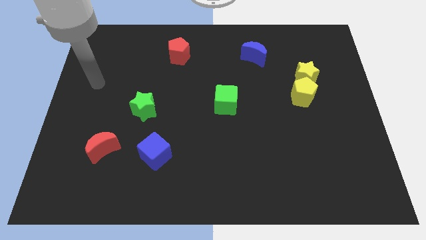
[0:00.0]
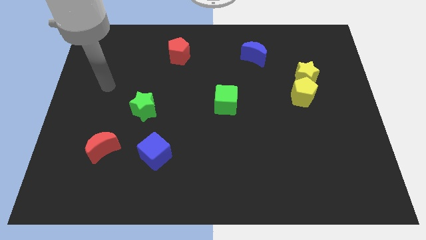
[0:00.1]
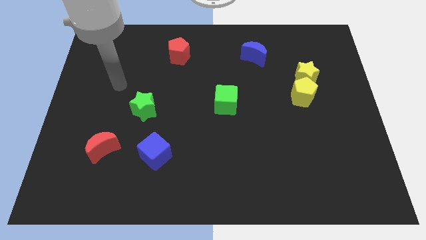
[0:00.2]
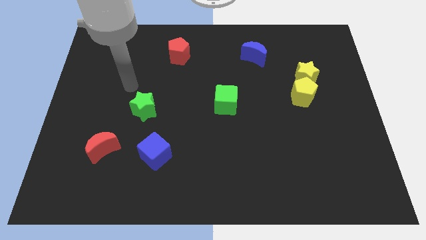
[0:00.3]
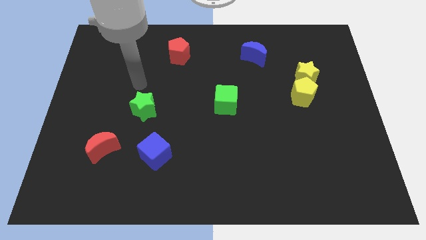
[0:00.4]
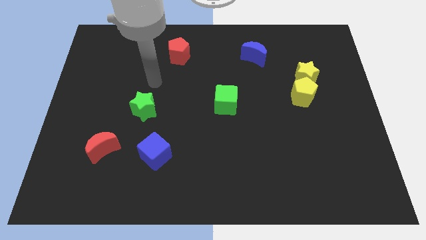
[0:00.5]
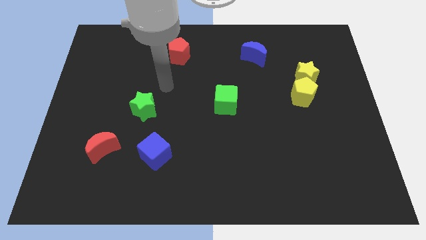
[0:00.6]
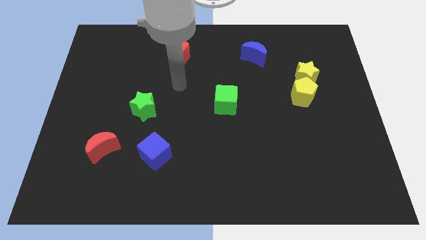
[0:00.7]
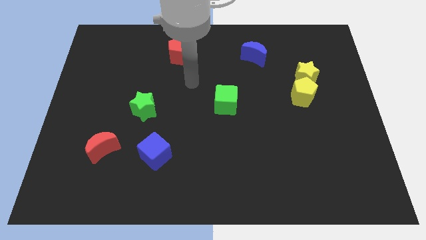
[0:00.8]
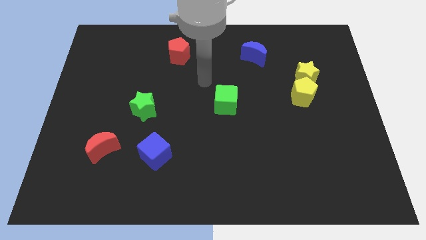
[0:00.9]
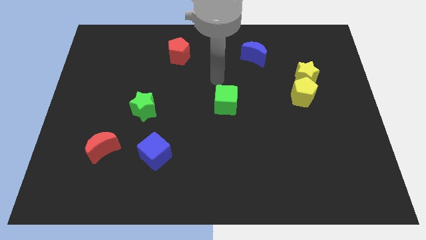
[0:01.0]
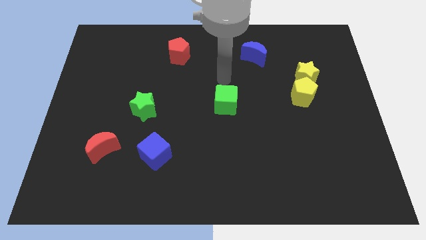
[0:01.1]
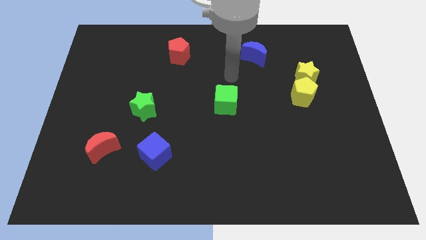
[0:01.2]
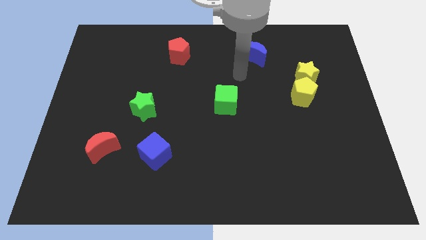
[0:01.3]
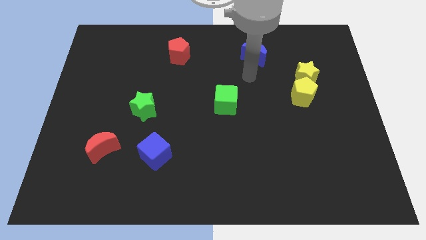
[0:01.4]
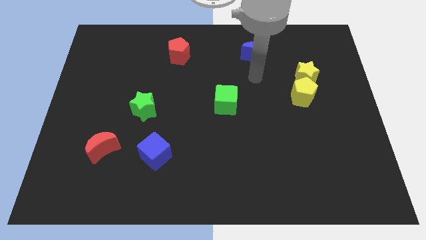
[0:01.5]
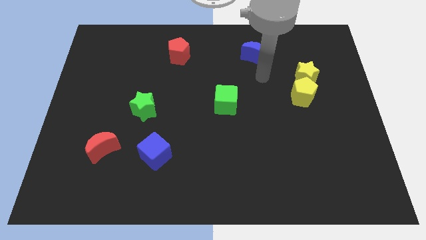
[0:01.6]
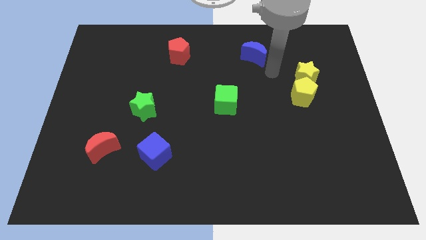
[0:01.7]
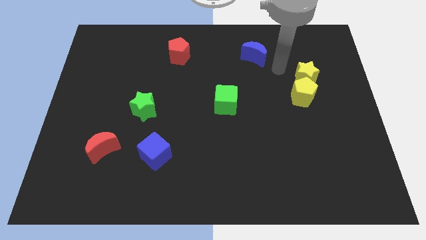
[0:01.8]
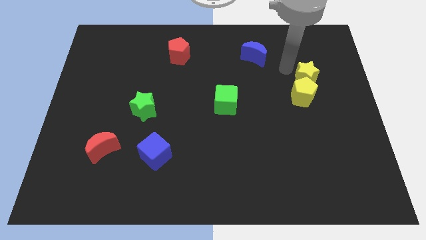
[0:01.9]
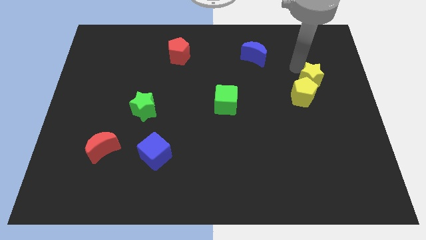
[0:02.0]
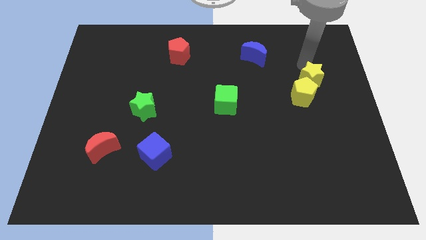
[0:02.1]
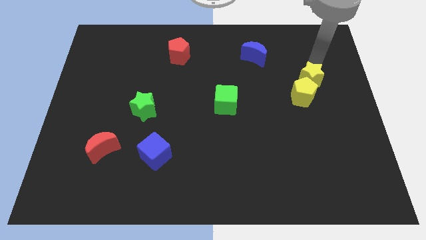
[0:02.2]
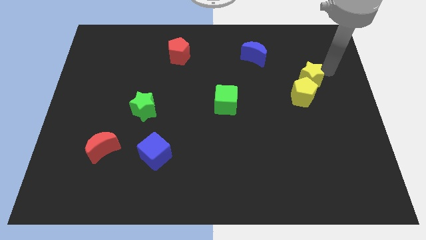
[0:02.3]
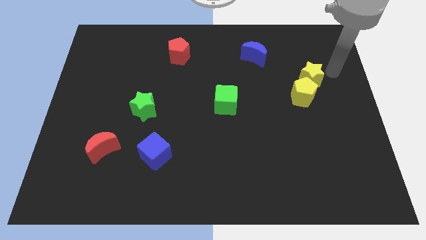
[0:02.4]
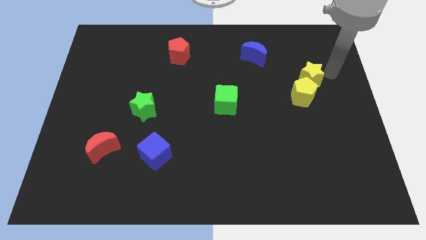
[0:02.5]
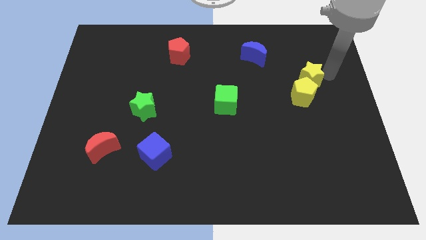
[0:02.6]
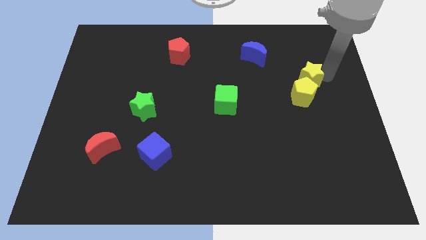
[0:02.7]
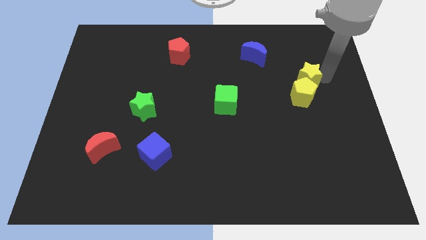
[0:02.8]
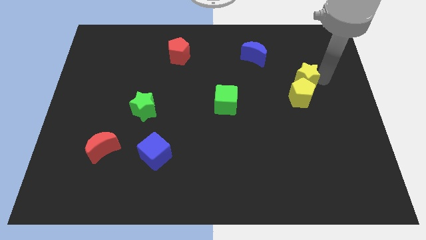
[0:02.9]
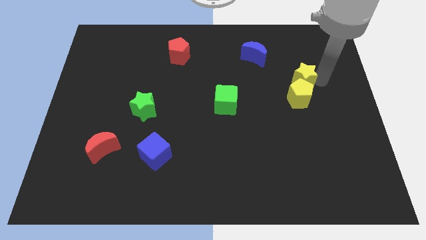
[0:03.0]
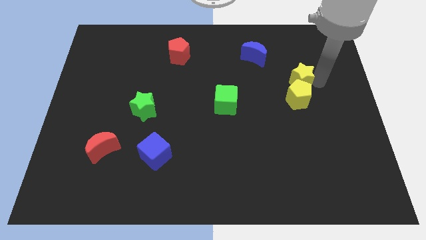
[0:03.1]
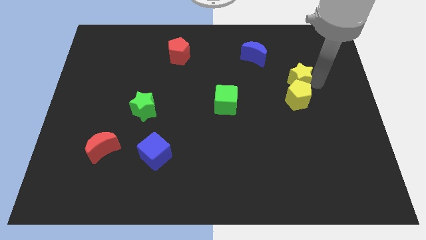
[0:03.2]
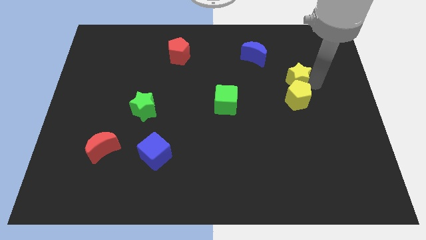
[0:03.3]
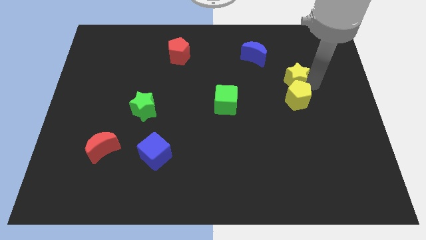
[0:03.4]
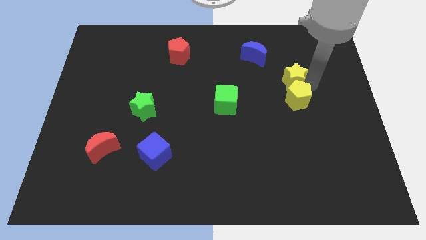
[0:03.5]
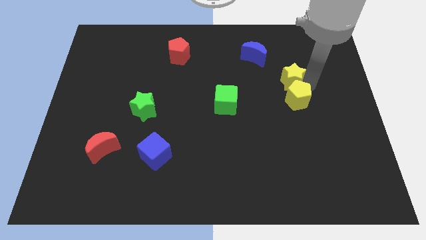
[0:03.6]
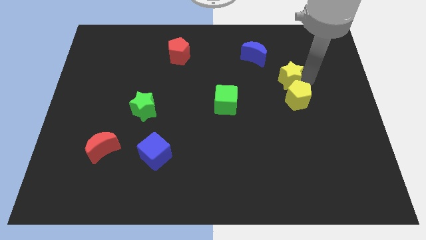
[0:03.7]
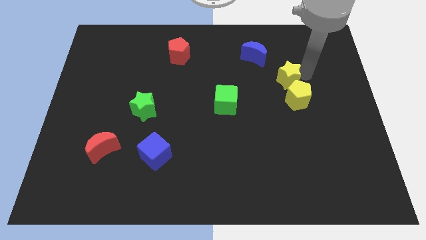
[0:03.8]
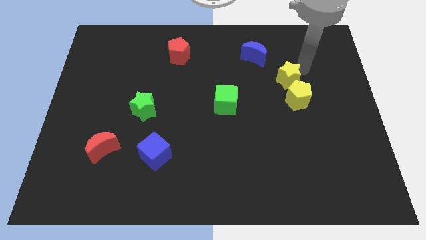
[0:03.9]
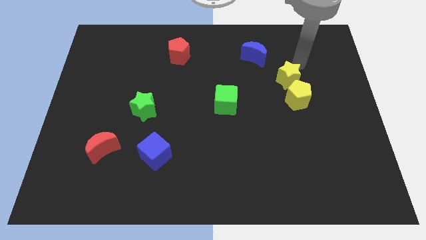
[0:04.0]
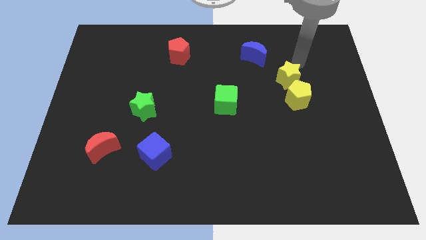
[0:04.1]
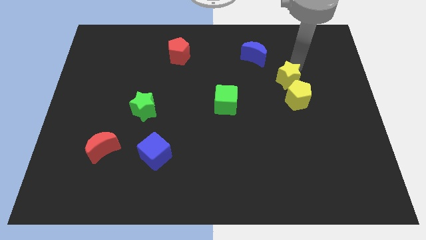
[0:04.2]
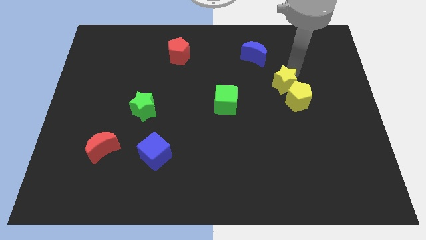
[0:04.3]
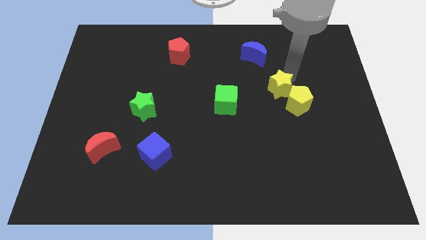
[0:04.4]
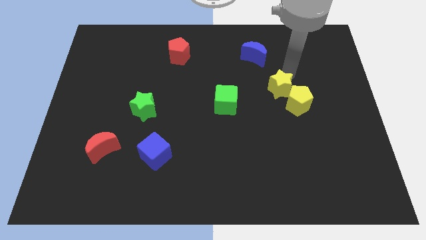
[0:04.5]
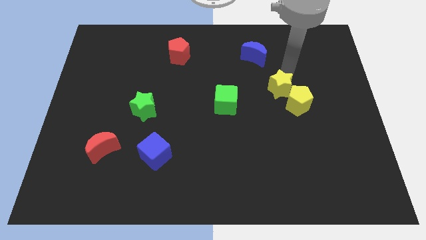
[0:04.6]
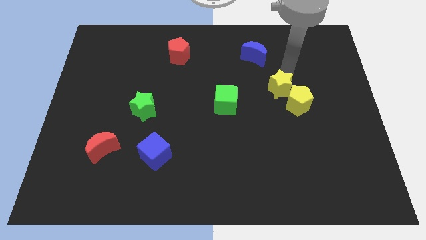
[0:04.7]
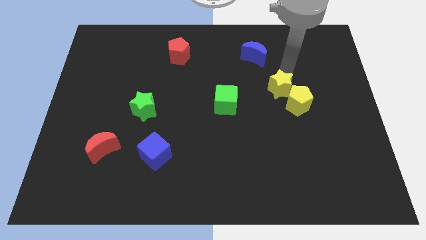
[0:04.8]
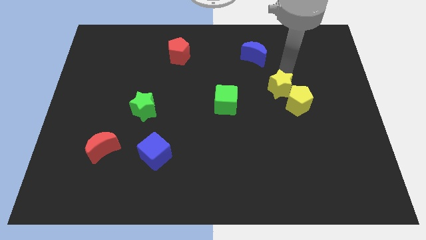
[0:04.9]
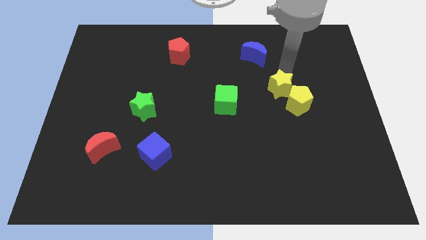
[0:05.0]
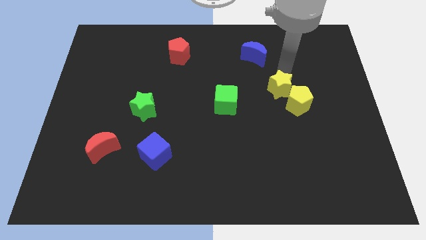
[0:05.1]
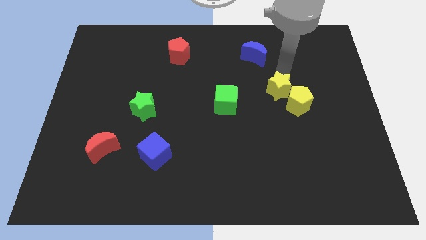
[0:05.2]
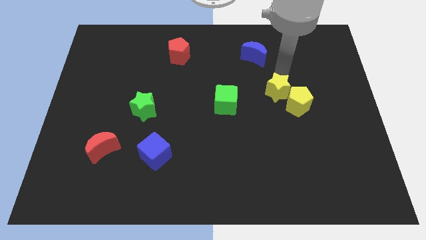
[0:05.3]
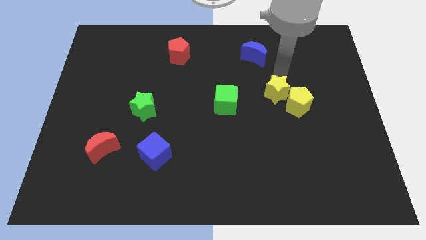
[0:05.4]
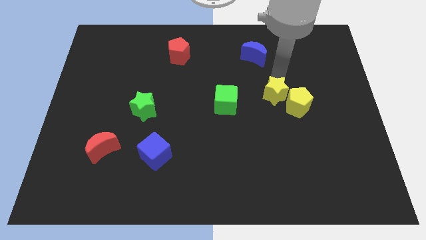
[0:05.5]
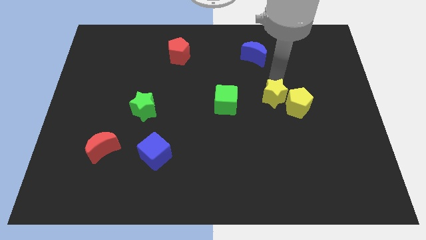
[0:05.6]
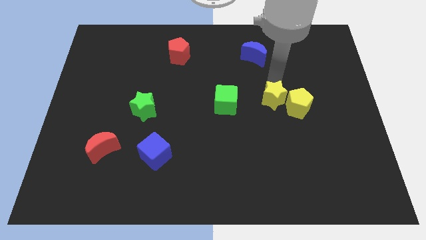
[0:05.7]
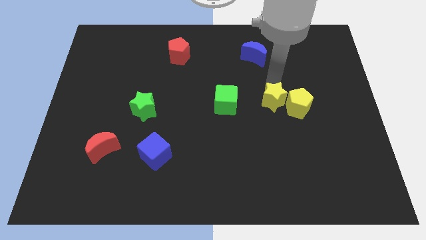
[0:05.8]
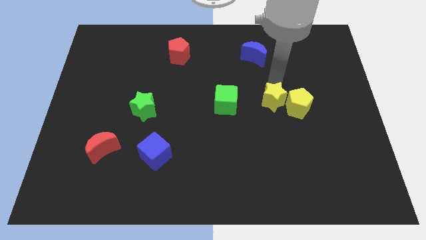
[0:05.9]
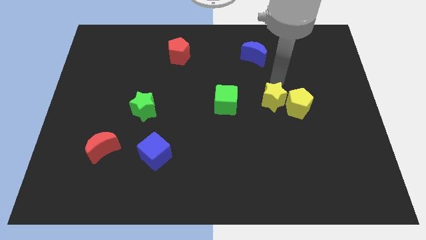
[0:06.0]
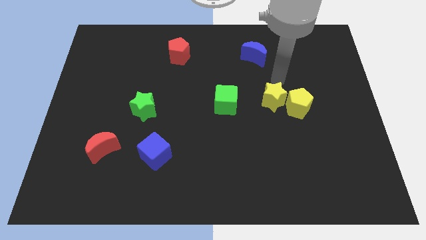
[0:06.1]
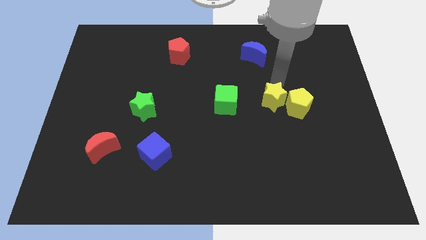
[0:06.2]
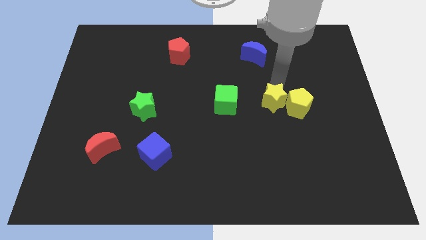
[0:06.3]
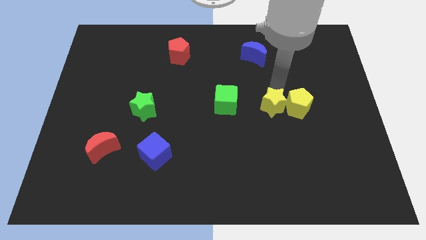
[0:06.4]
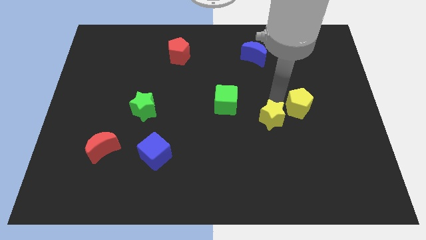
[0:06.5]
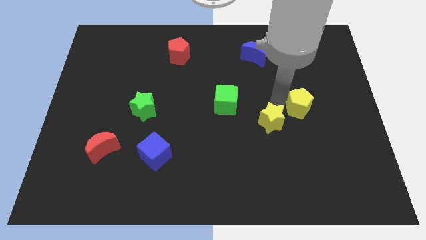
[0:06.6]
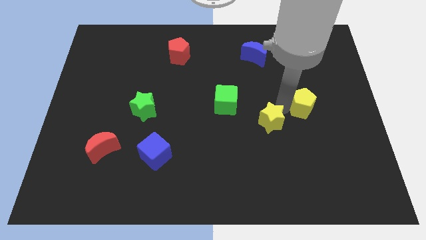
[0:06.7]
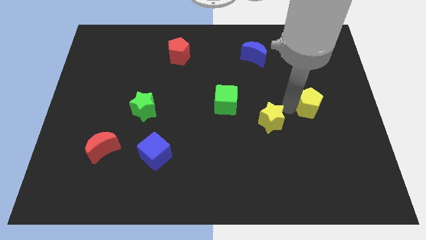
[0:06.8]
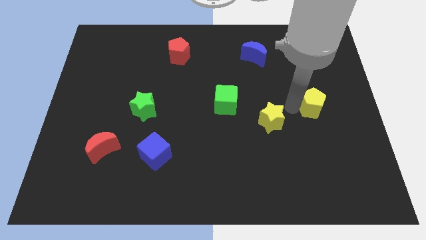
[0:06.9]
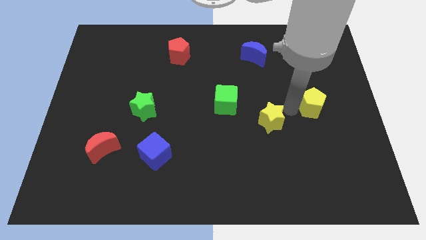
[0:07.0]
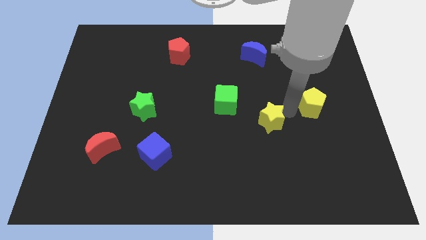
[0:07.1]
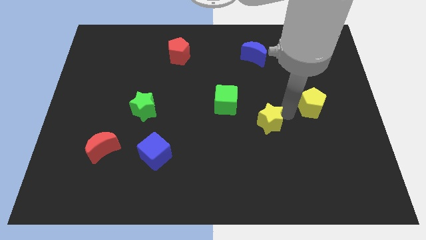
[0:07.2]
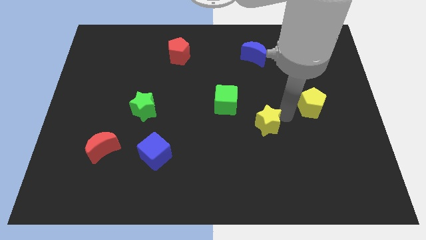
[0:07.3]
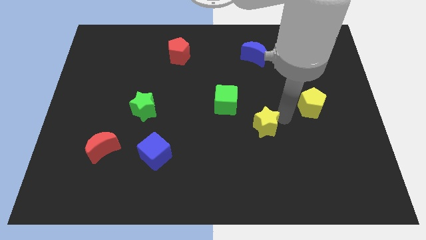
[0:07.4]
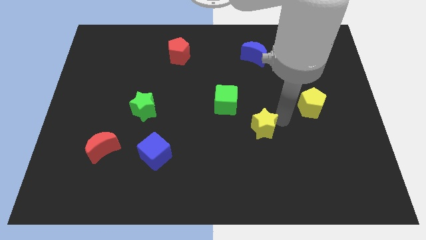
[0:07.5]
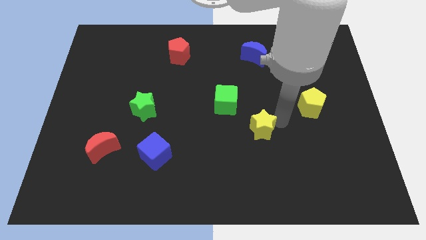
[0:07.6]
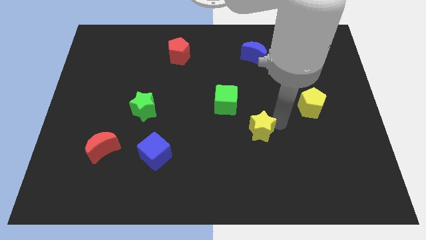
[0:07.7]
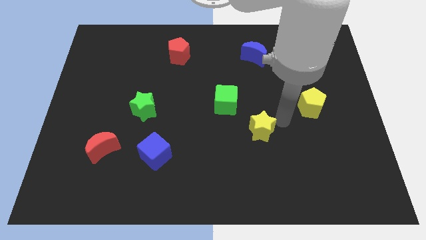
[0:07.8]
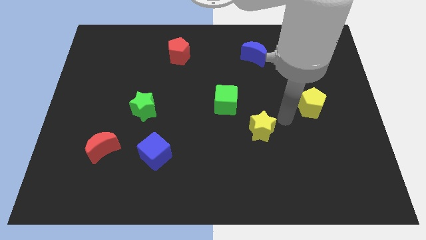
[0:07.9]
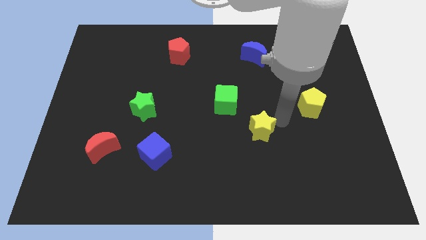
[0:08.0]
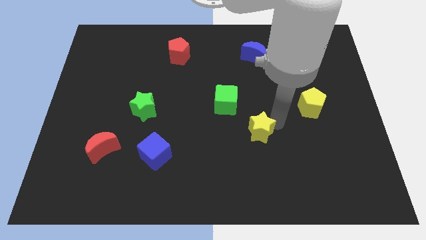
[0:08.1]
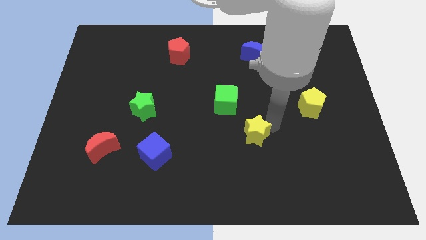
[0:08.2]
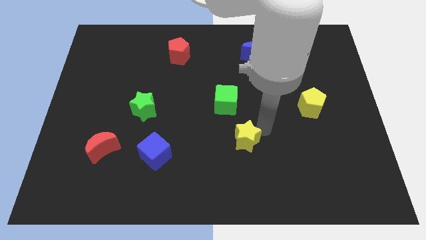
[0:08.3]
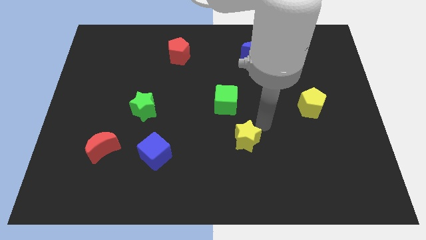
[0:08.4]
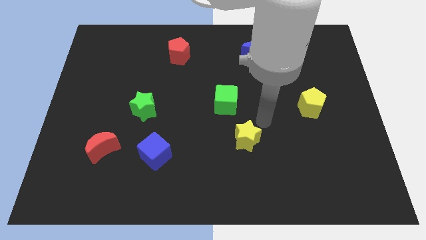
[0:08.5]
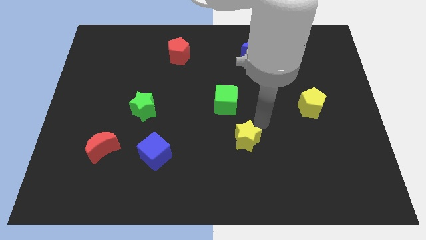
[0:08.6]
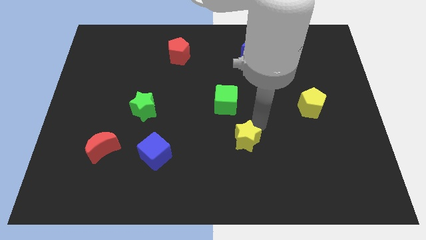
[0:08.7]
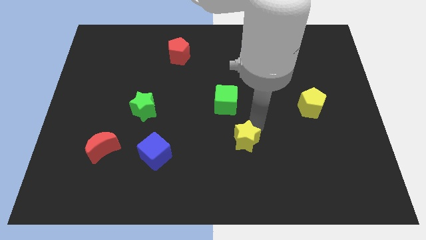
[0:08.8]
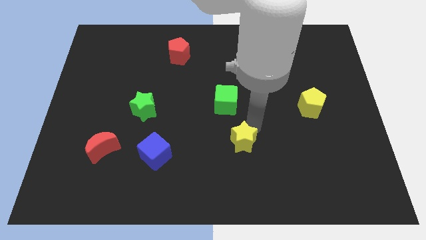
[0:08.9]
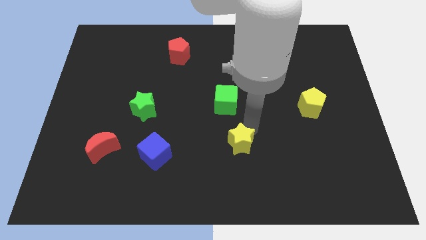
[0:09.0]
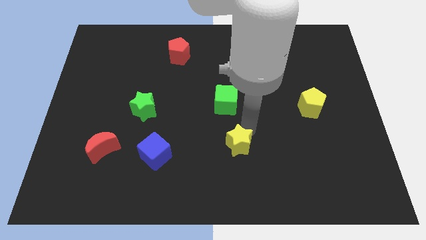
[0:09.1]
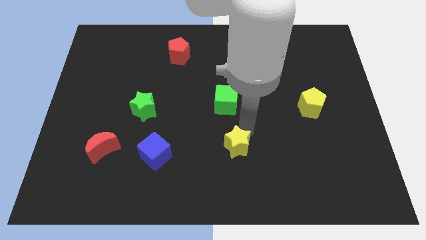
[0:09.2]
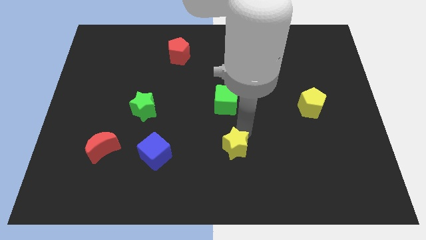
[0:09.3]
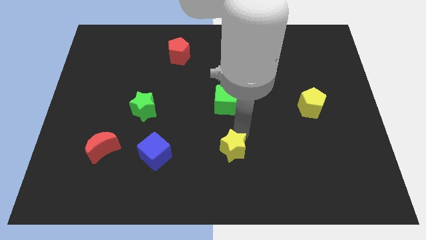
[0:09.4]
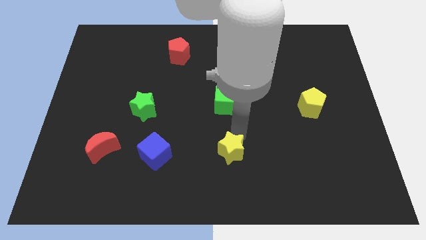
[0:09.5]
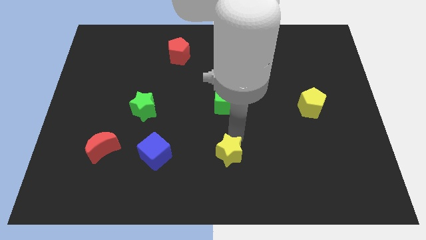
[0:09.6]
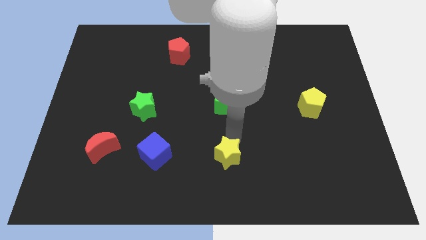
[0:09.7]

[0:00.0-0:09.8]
slide the yellow star to the bottom
